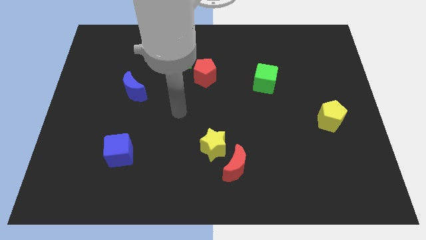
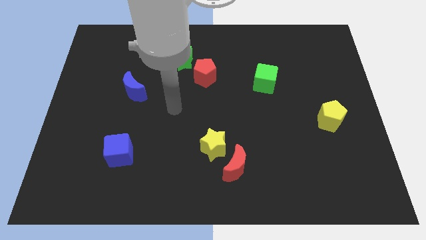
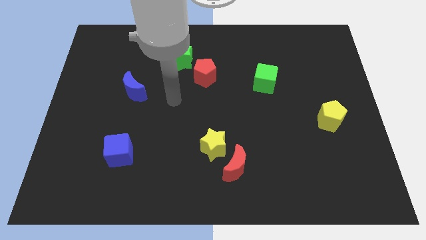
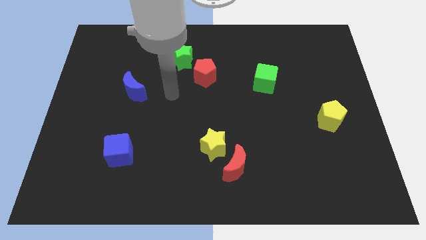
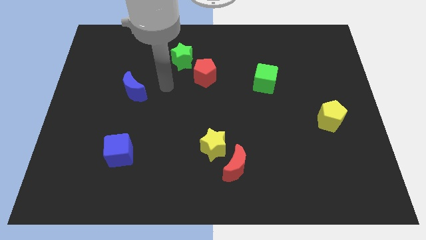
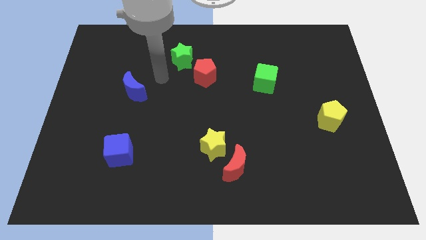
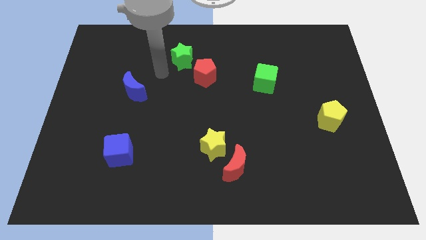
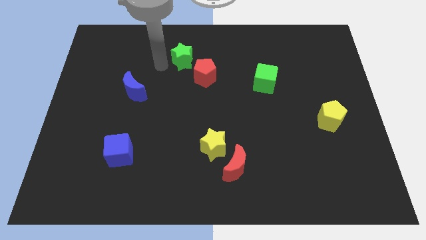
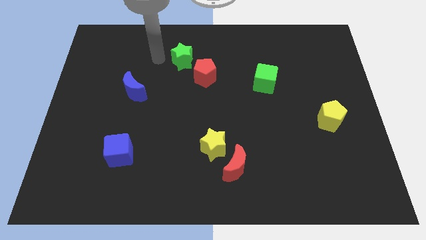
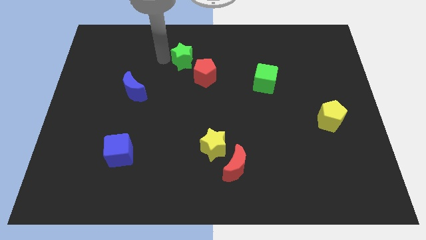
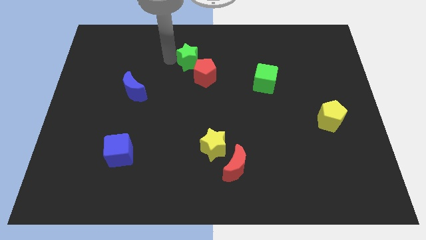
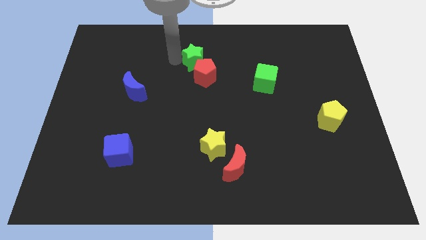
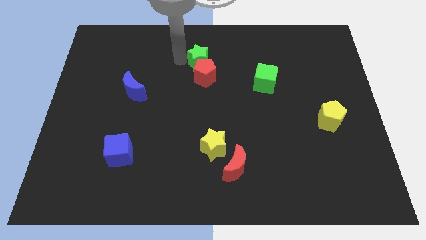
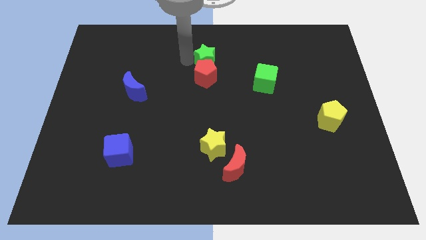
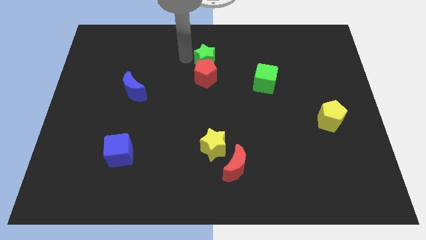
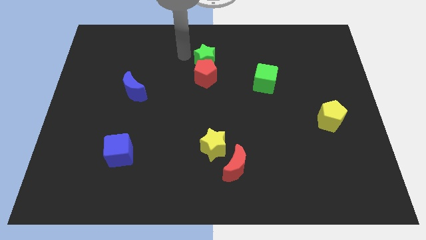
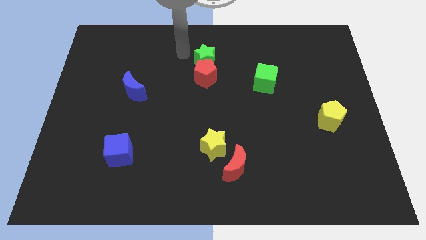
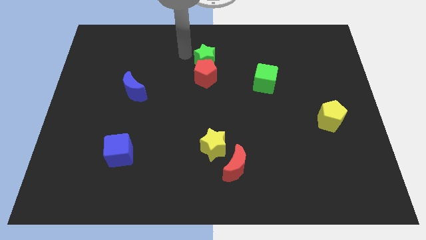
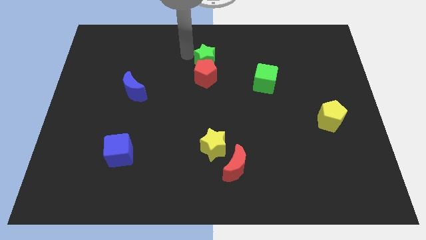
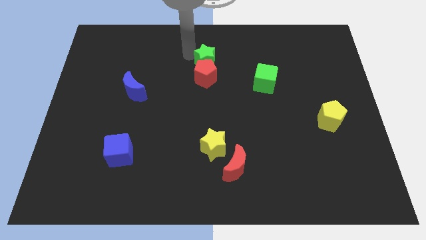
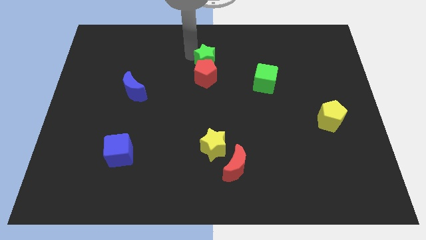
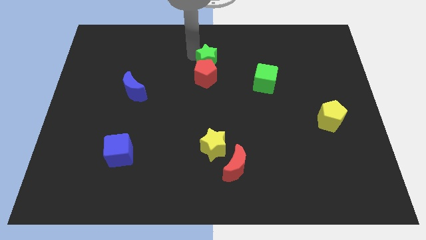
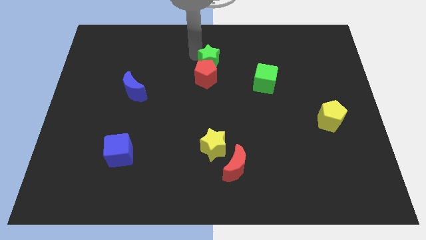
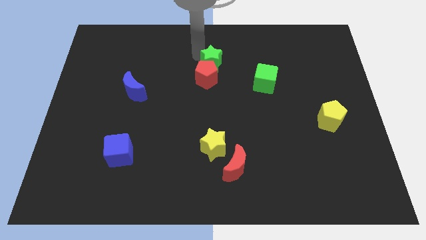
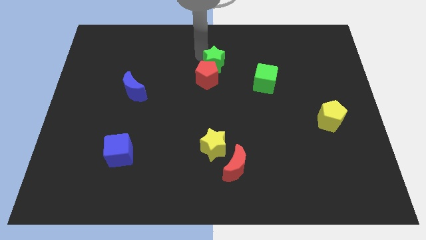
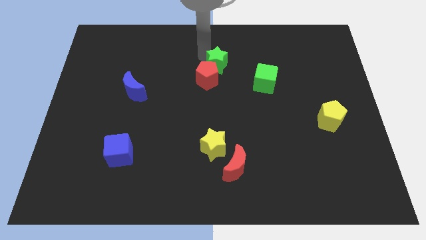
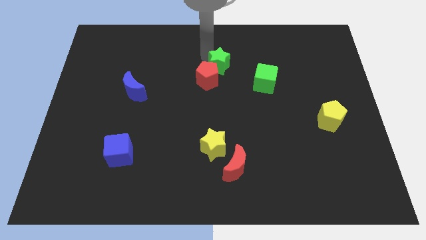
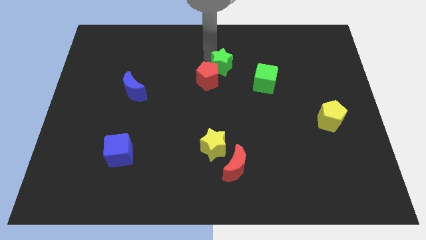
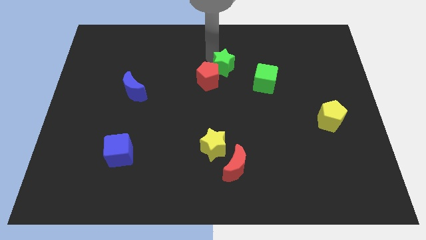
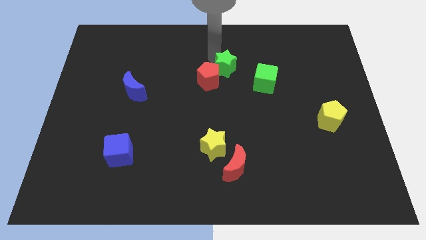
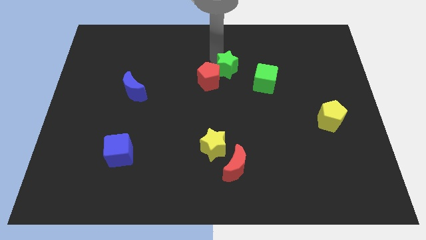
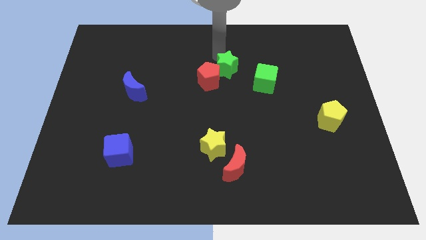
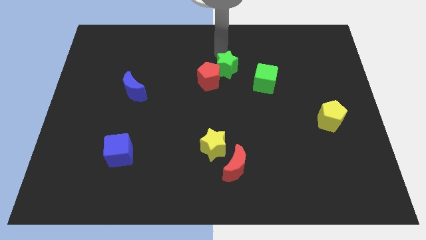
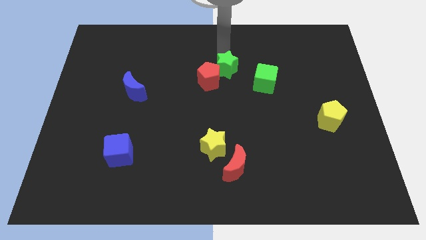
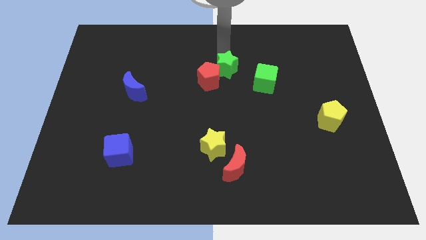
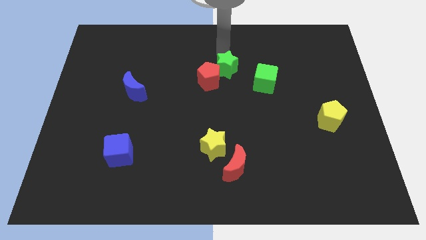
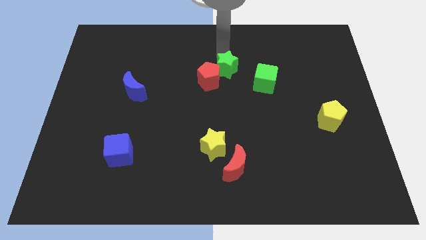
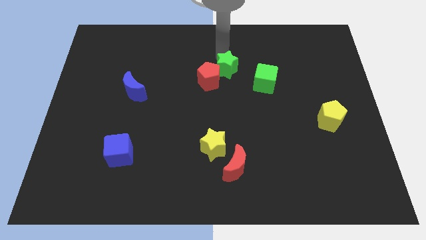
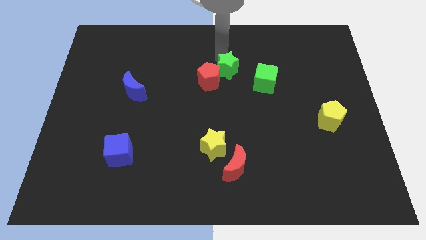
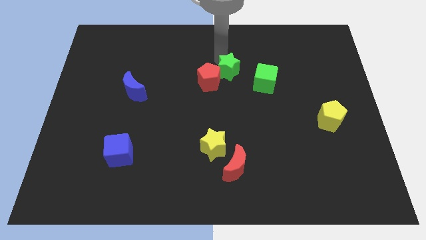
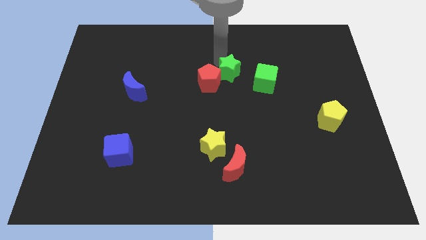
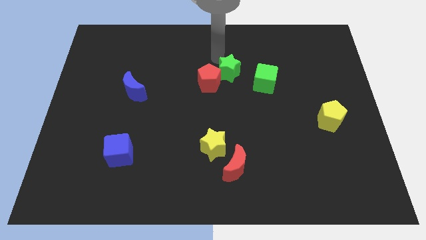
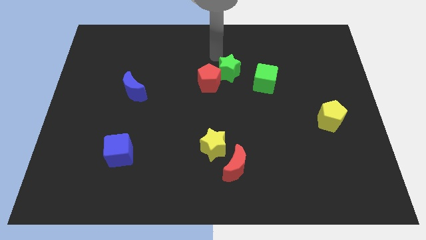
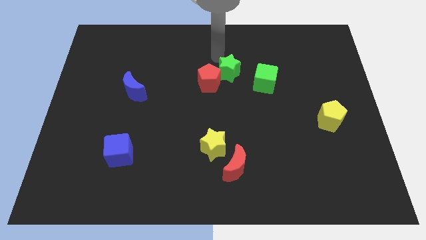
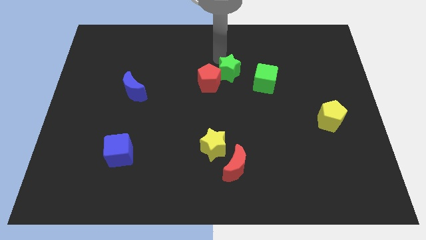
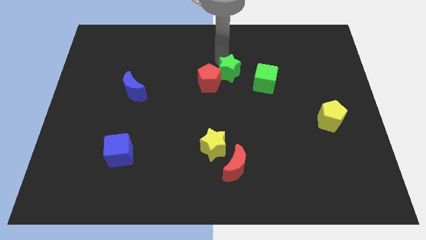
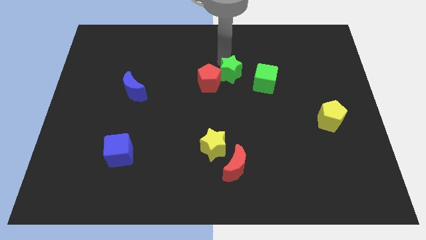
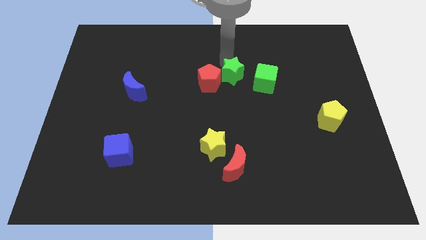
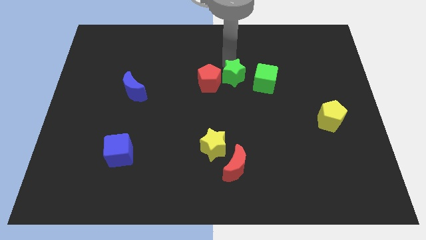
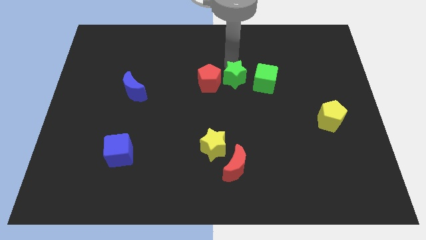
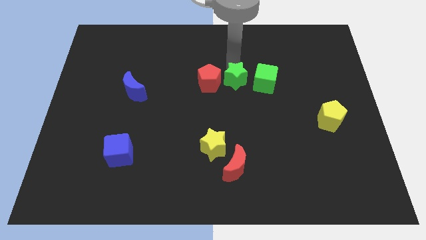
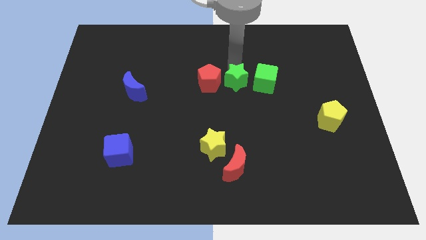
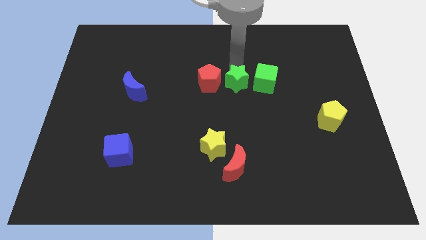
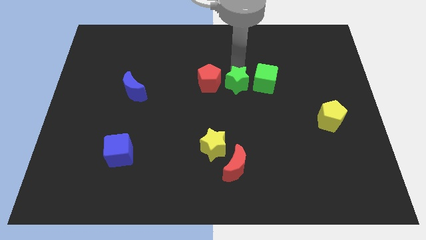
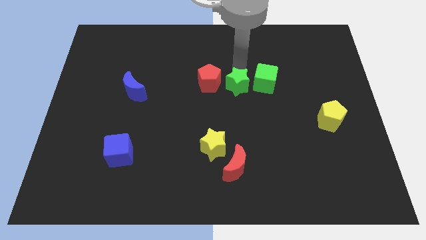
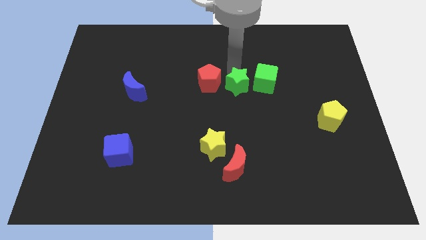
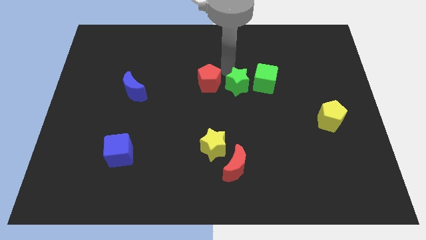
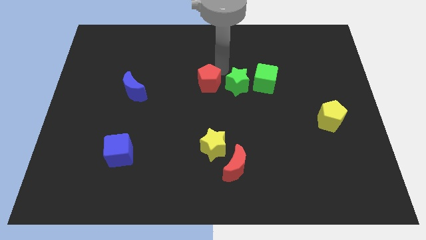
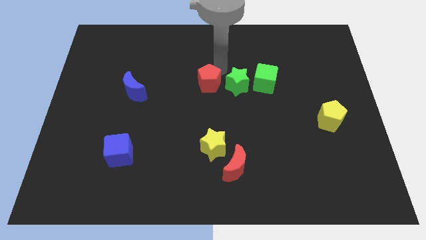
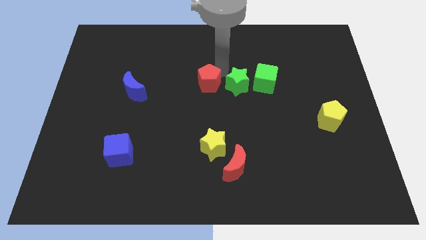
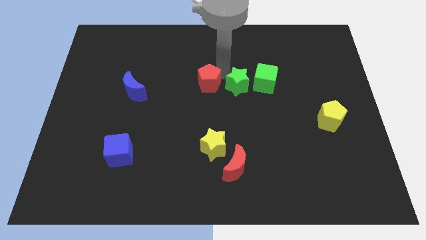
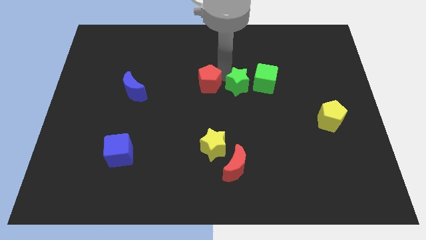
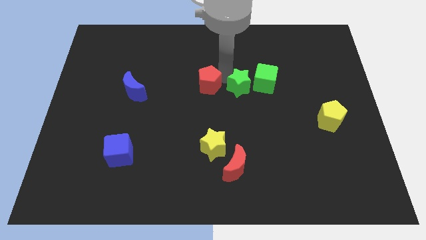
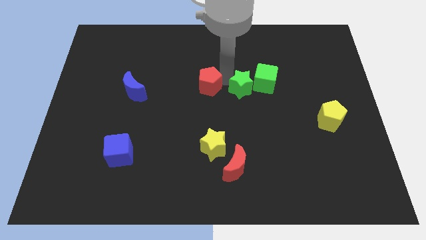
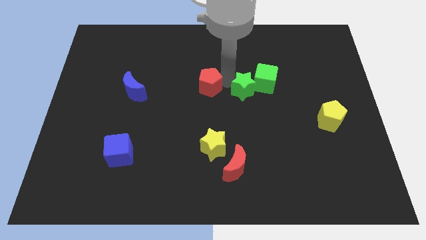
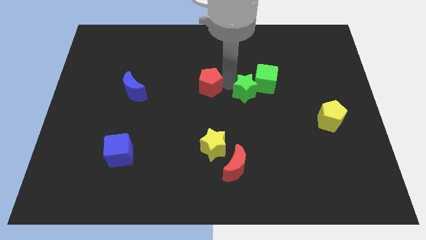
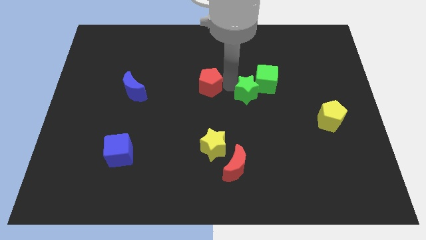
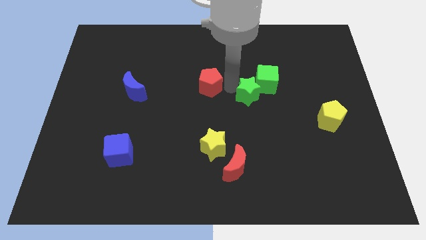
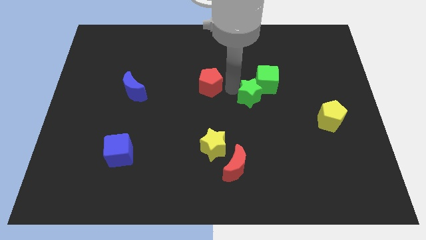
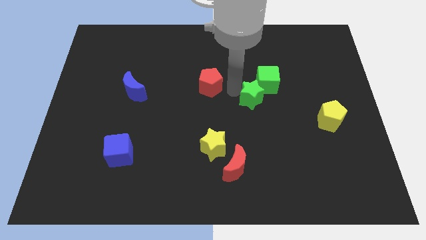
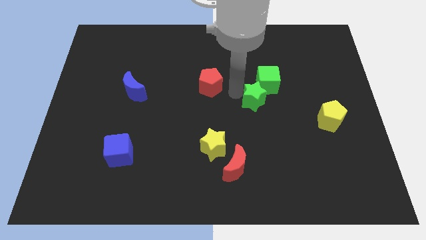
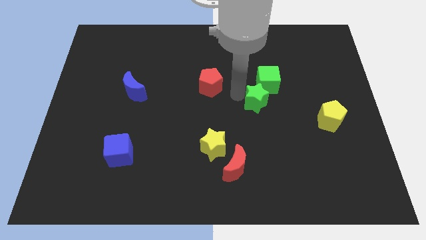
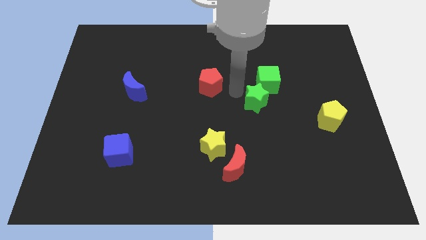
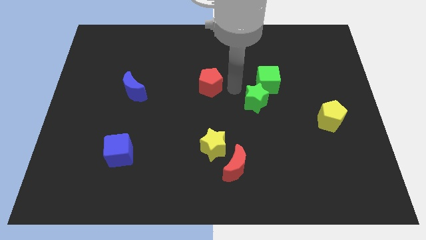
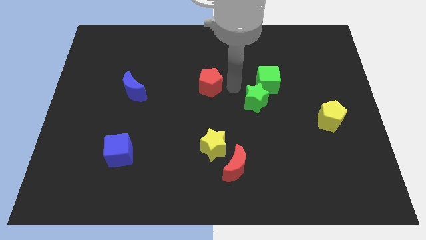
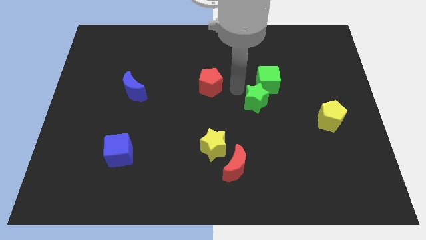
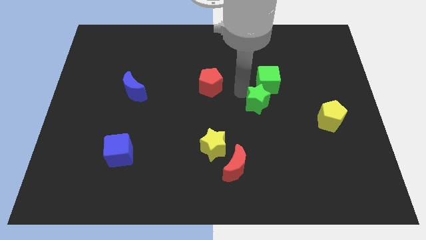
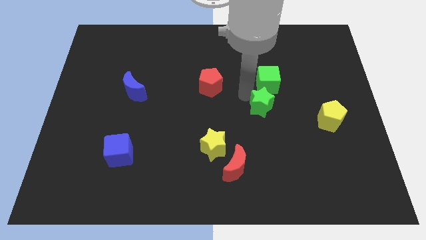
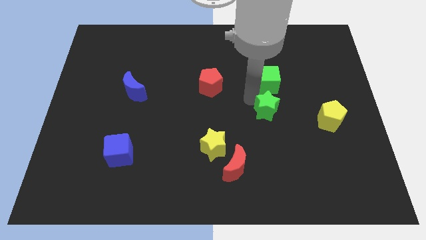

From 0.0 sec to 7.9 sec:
move the green star left of the yellow pentagon

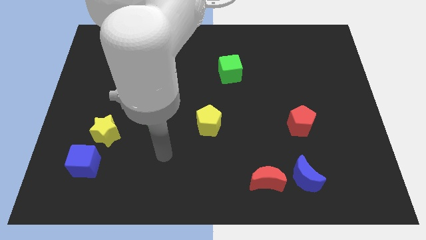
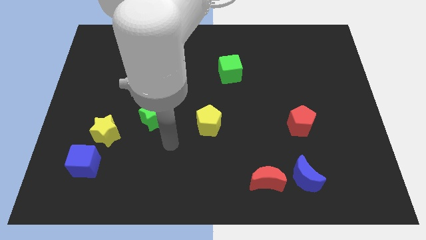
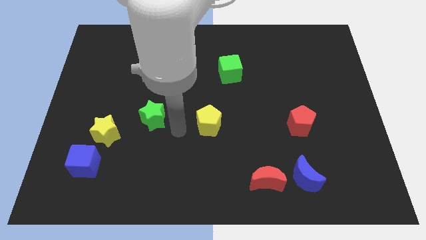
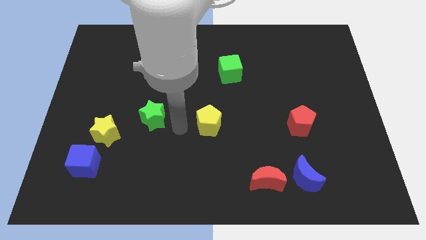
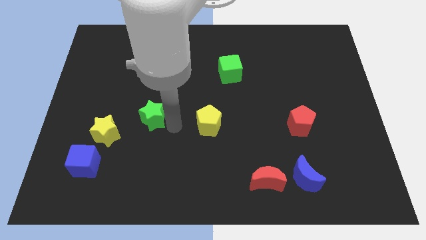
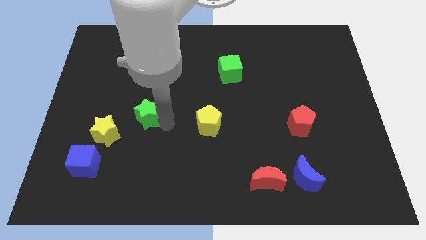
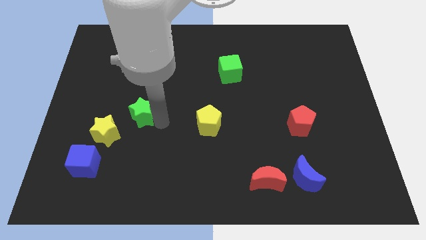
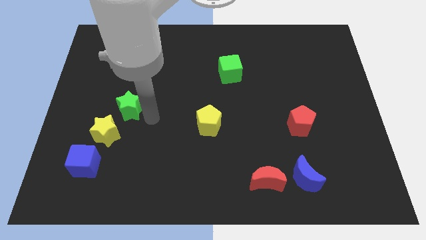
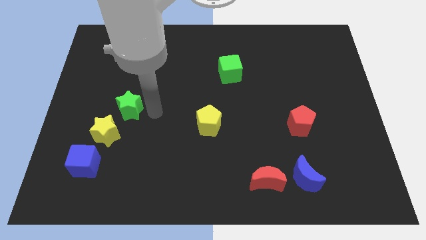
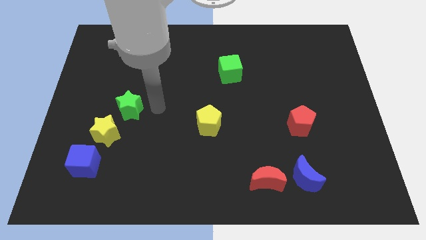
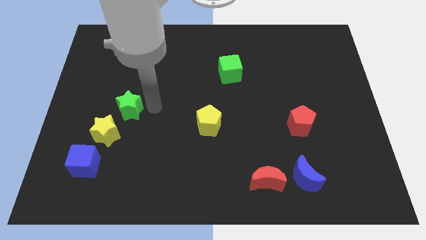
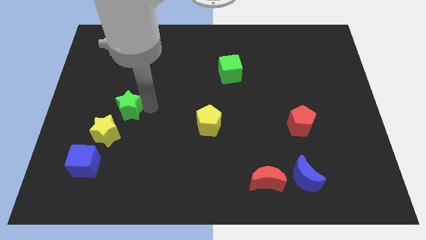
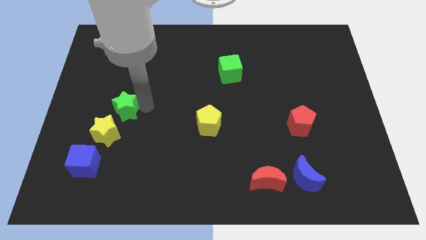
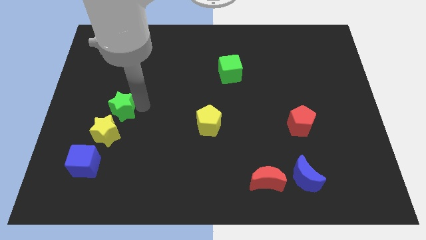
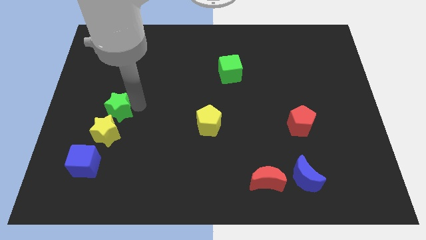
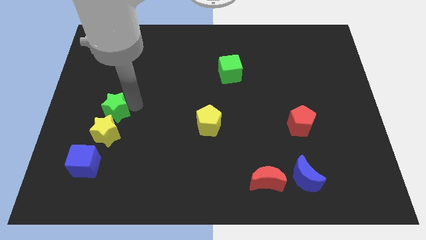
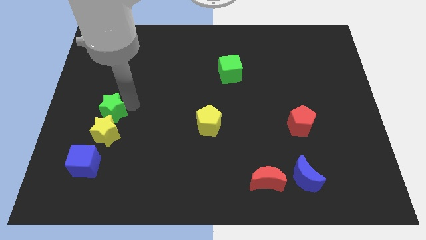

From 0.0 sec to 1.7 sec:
push the green star to the top left of the yellow star
